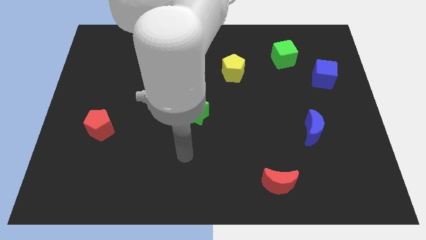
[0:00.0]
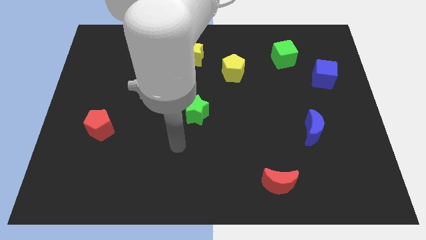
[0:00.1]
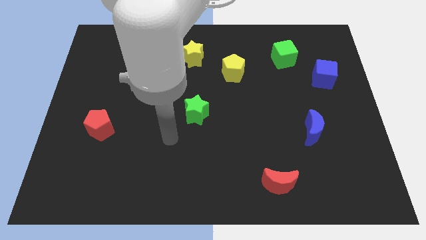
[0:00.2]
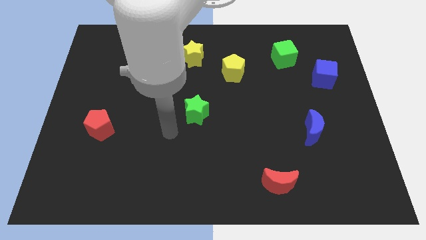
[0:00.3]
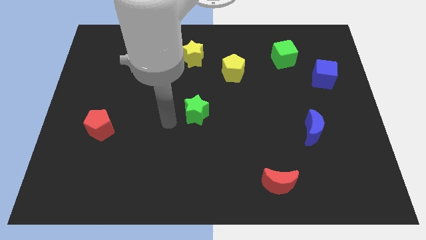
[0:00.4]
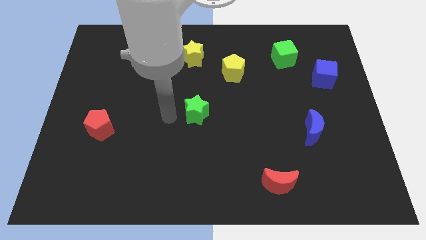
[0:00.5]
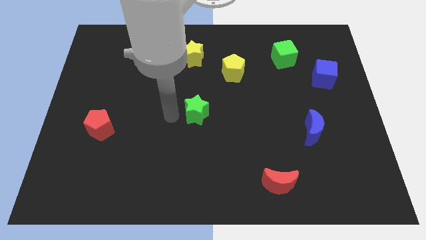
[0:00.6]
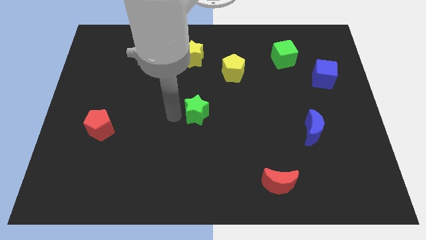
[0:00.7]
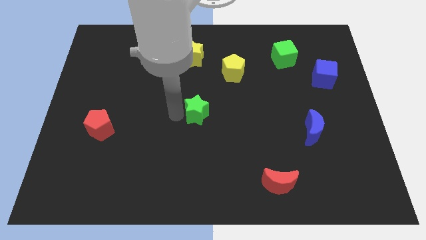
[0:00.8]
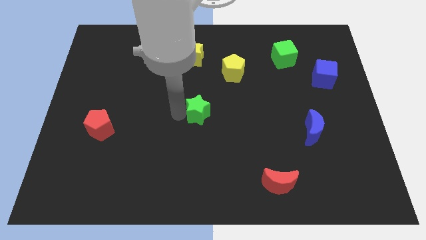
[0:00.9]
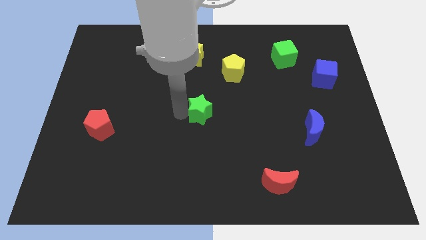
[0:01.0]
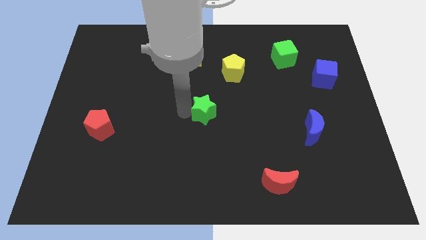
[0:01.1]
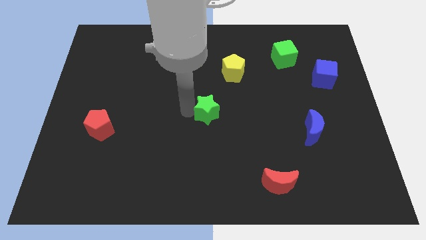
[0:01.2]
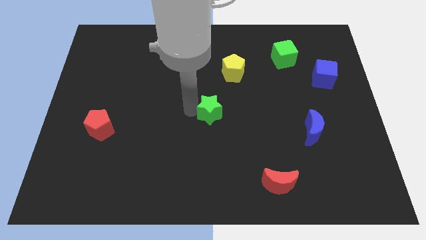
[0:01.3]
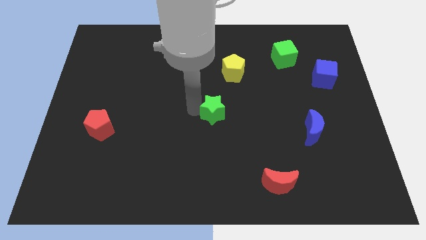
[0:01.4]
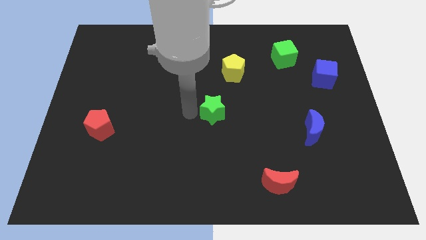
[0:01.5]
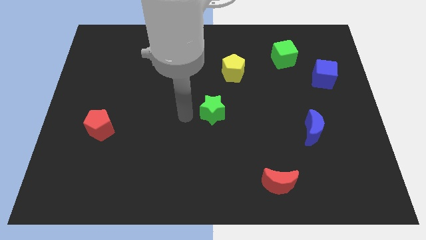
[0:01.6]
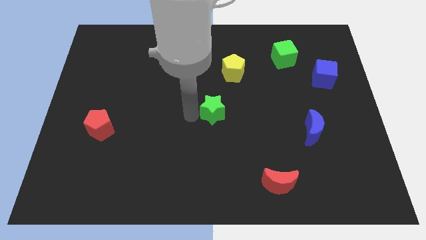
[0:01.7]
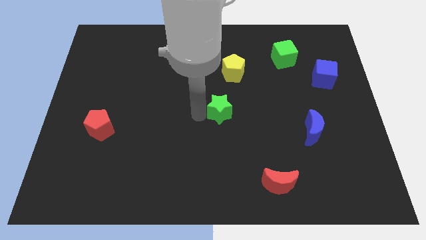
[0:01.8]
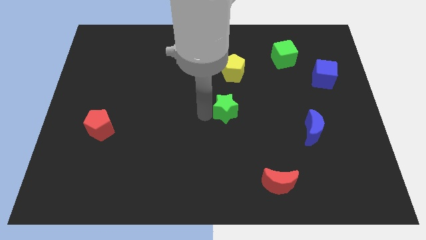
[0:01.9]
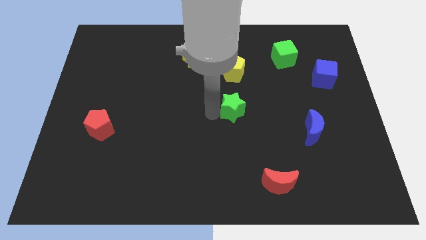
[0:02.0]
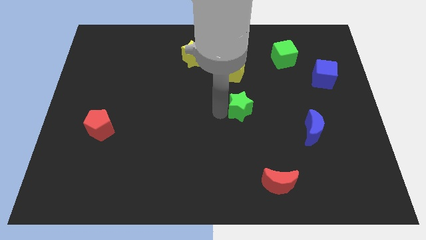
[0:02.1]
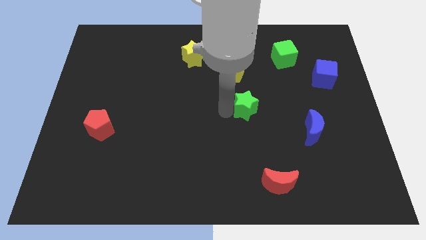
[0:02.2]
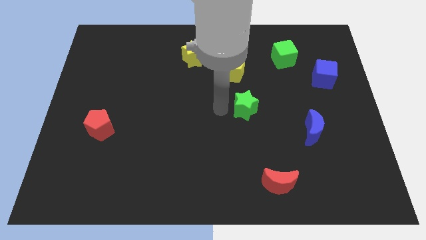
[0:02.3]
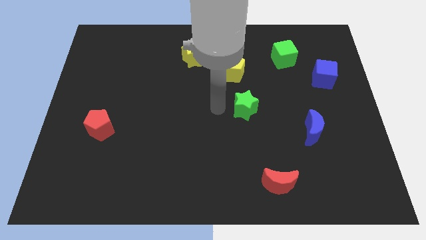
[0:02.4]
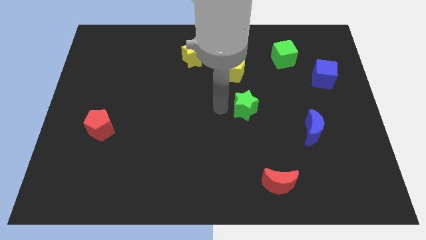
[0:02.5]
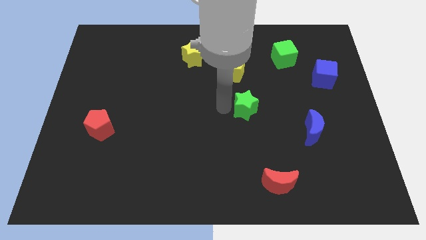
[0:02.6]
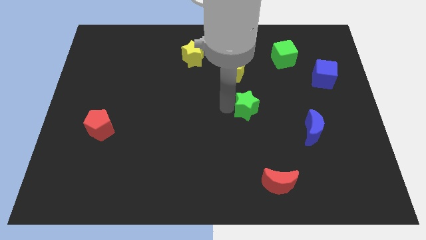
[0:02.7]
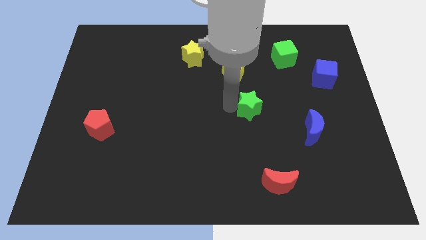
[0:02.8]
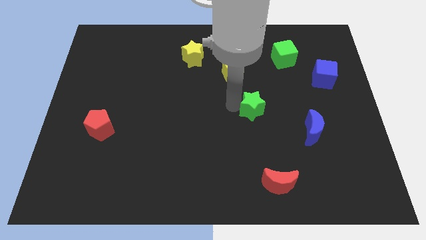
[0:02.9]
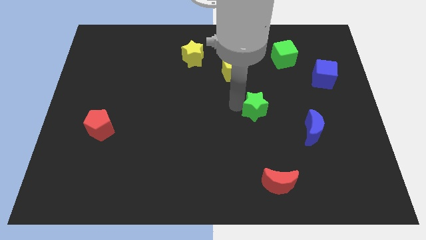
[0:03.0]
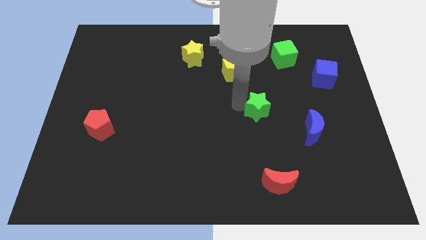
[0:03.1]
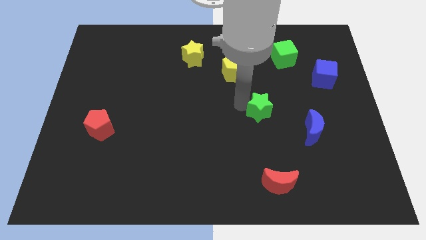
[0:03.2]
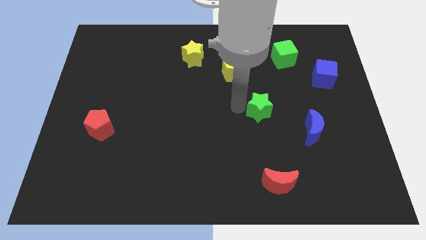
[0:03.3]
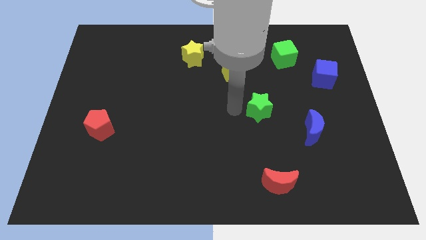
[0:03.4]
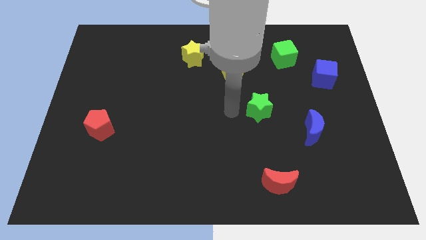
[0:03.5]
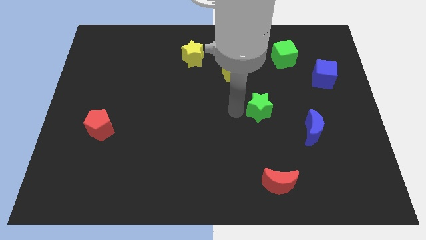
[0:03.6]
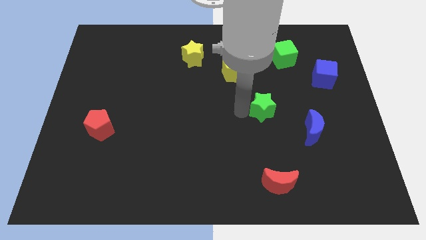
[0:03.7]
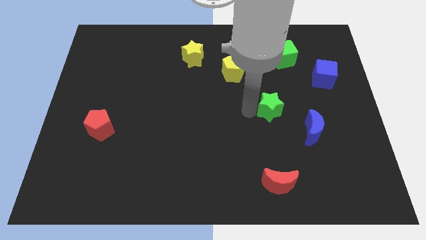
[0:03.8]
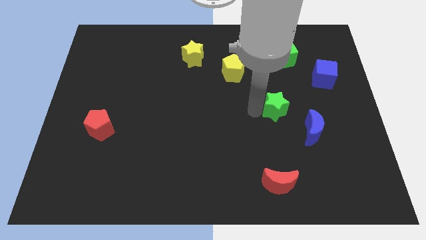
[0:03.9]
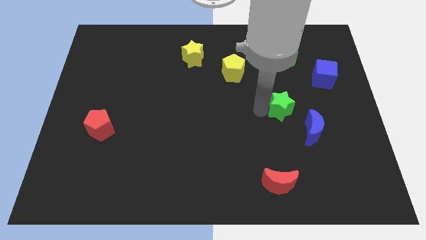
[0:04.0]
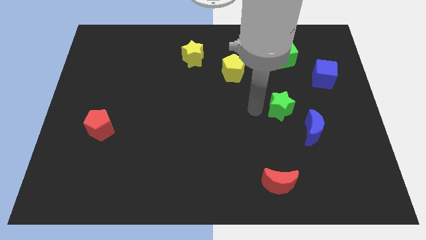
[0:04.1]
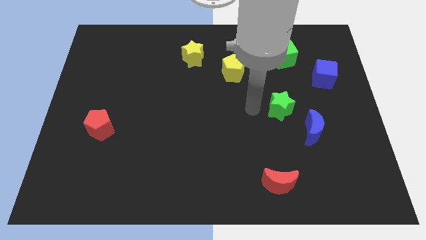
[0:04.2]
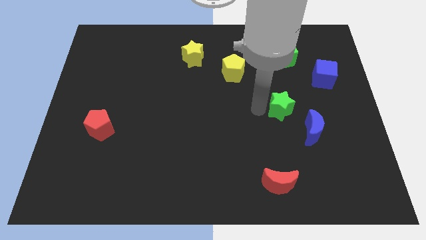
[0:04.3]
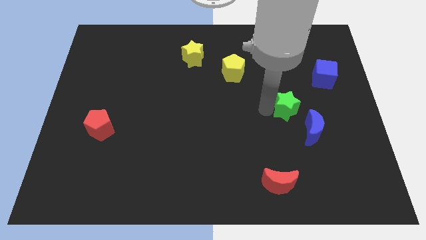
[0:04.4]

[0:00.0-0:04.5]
move the green star to the right

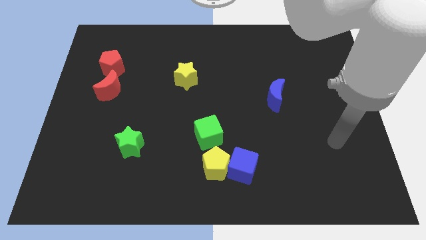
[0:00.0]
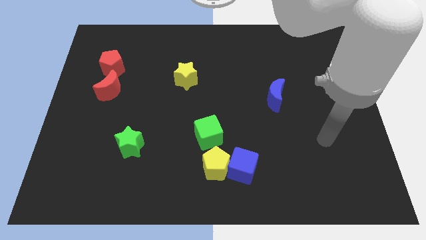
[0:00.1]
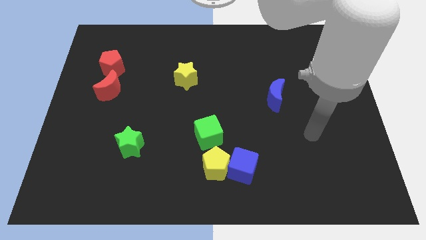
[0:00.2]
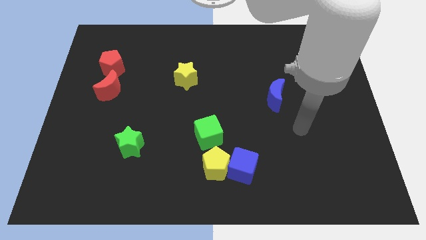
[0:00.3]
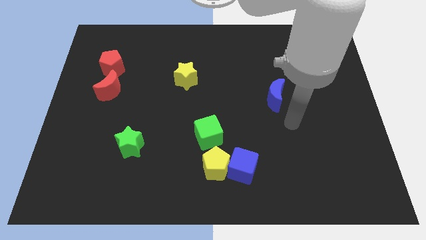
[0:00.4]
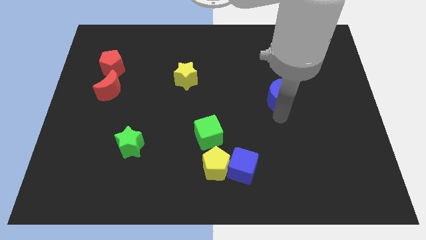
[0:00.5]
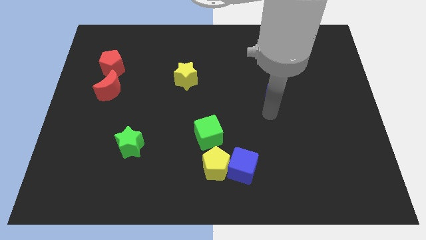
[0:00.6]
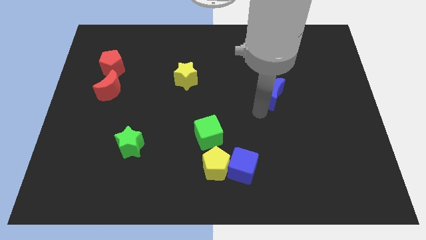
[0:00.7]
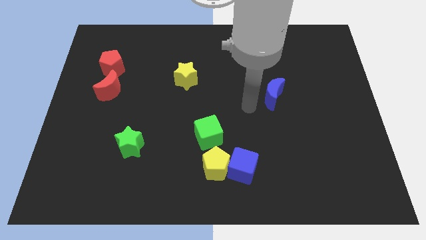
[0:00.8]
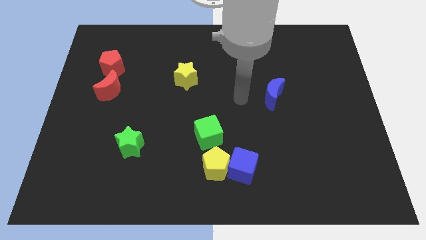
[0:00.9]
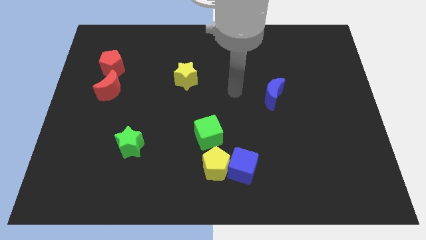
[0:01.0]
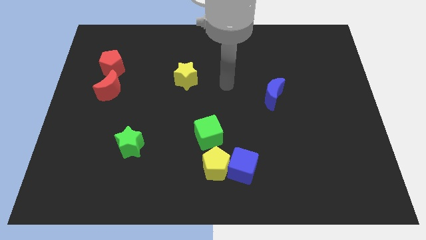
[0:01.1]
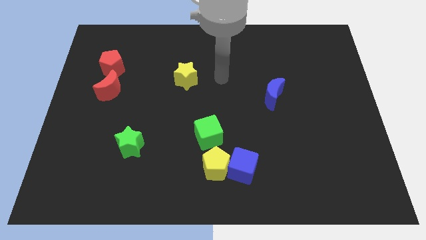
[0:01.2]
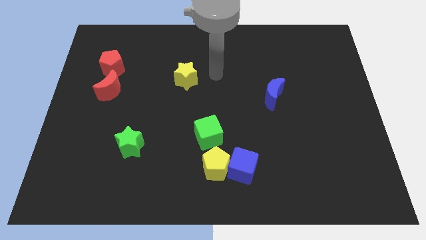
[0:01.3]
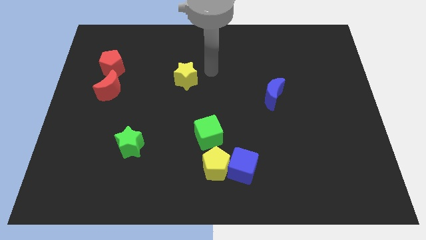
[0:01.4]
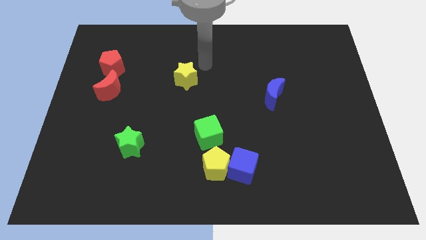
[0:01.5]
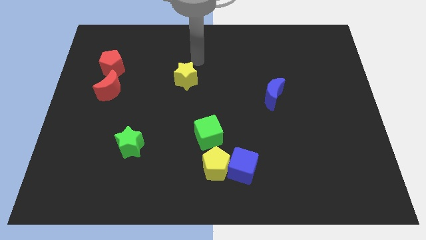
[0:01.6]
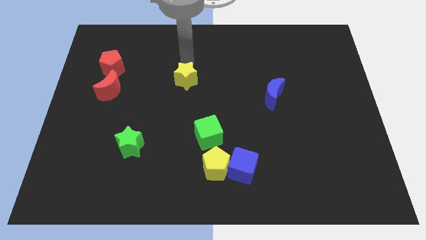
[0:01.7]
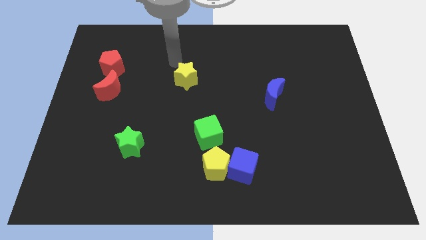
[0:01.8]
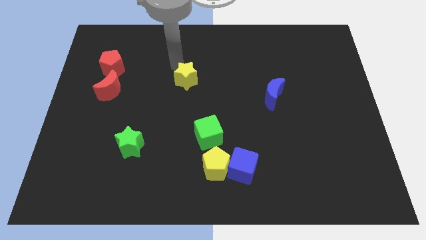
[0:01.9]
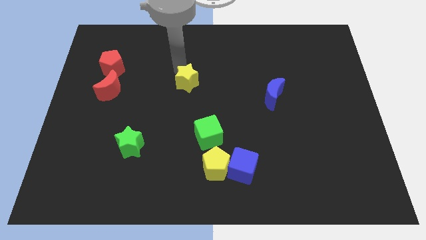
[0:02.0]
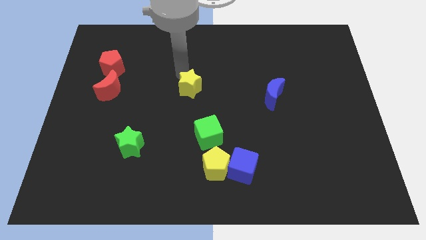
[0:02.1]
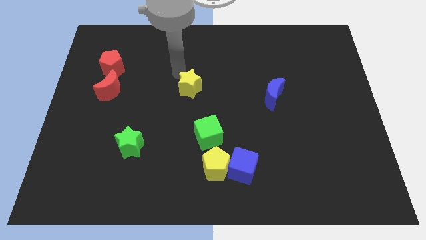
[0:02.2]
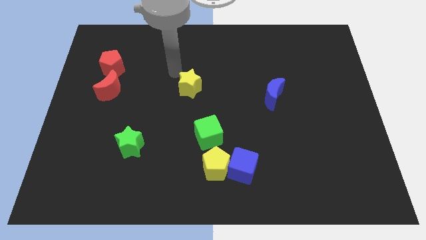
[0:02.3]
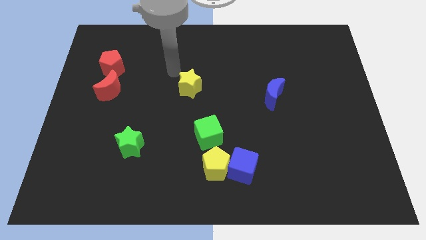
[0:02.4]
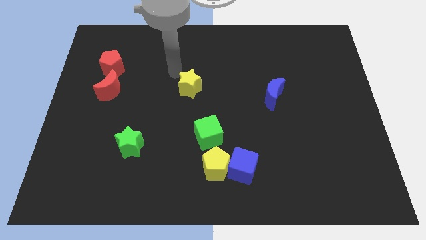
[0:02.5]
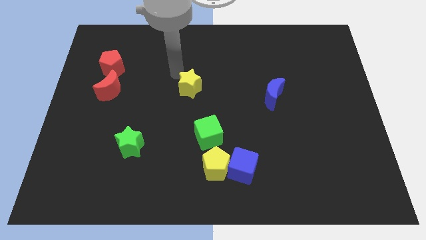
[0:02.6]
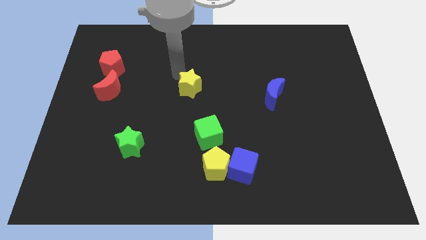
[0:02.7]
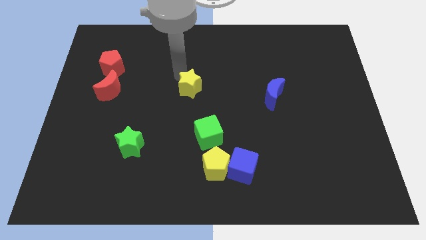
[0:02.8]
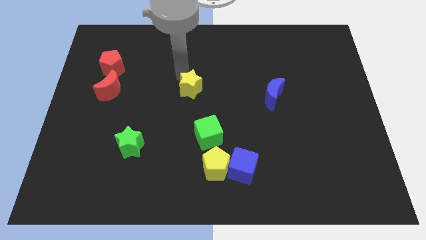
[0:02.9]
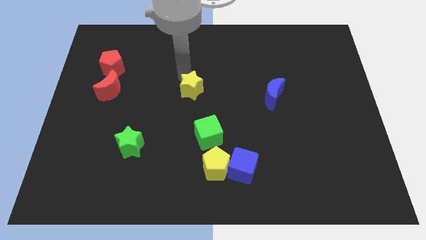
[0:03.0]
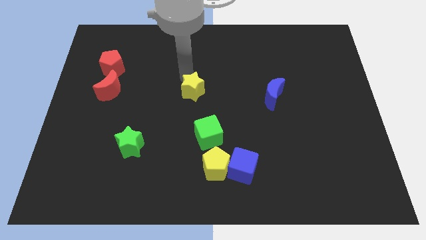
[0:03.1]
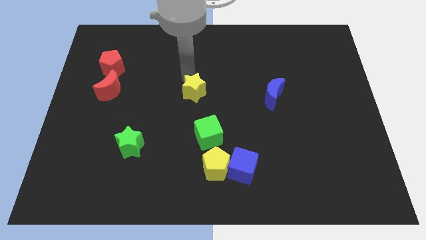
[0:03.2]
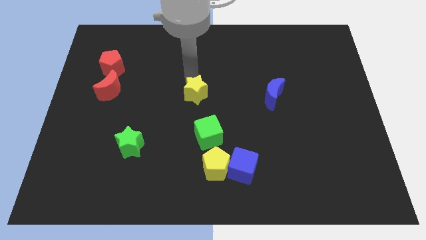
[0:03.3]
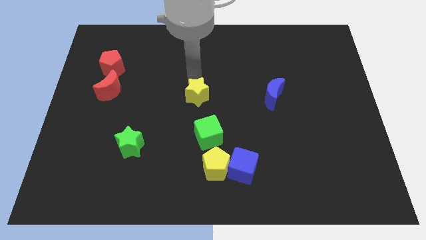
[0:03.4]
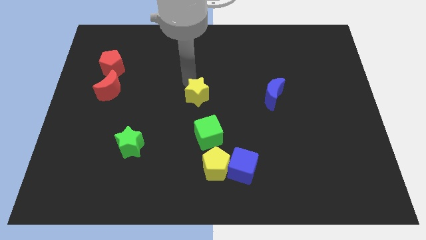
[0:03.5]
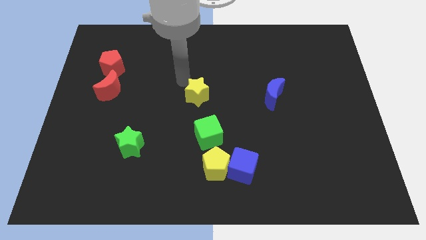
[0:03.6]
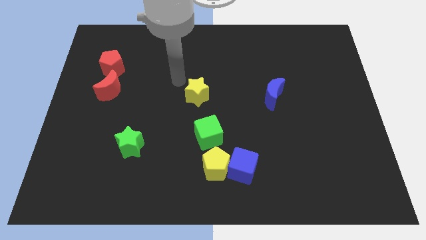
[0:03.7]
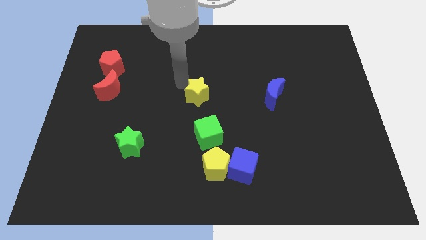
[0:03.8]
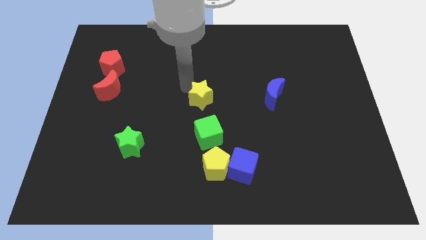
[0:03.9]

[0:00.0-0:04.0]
move the yellow star somewhat diagonally downwards and right
